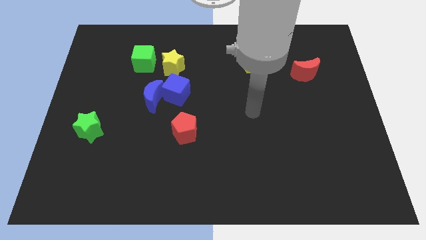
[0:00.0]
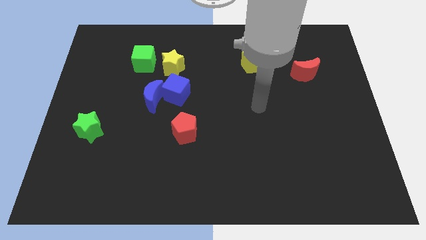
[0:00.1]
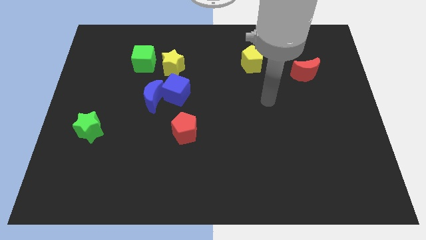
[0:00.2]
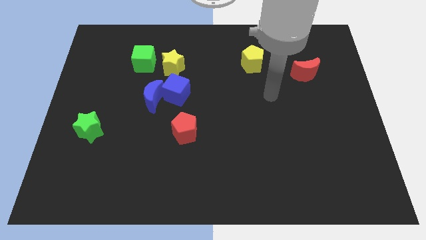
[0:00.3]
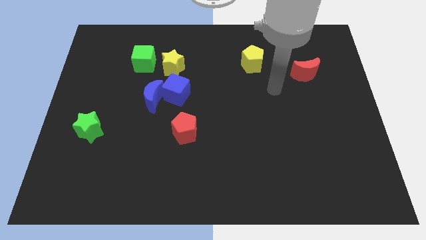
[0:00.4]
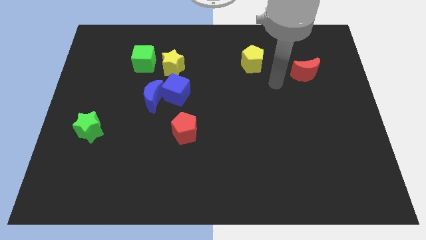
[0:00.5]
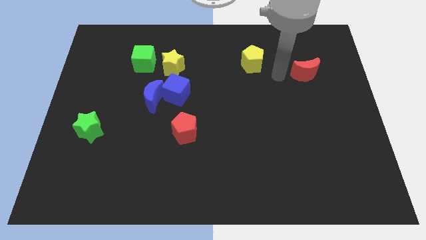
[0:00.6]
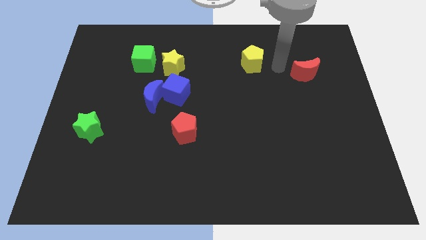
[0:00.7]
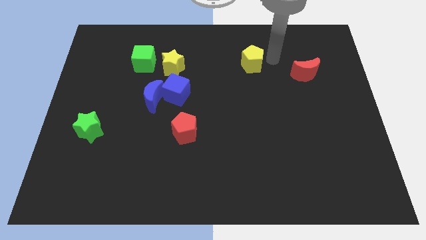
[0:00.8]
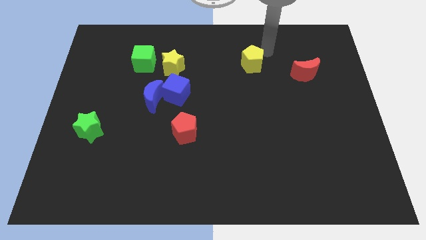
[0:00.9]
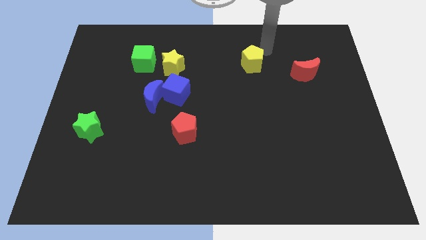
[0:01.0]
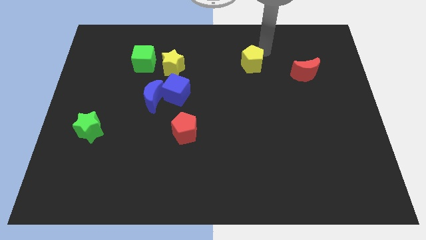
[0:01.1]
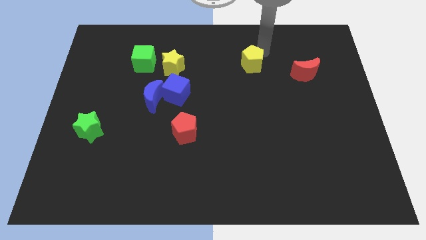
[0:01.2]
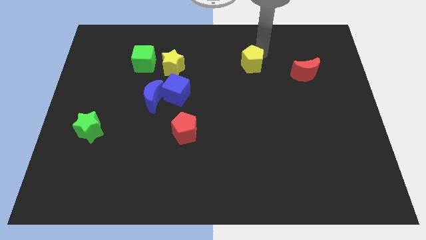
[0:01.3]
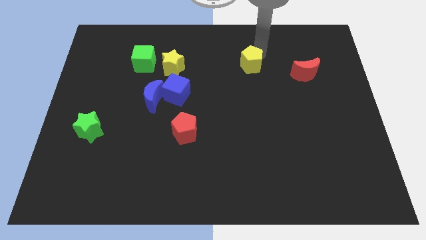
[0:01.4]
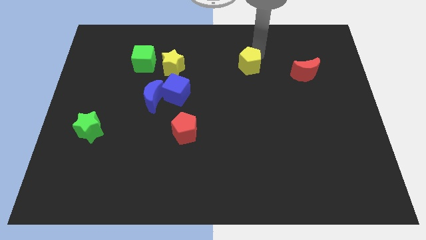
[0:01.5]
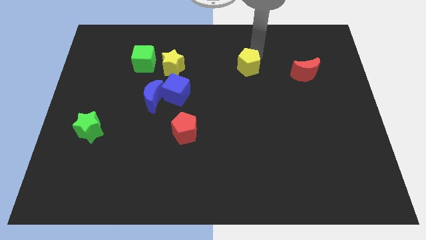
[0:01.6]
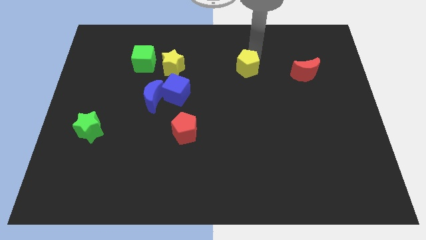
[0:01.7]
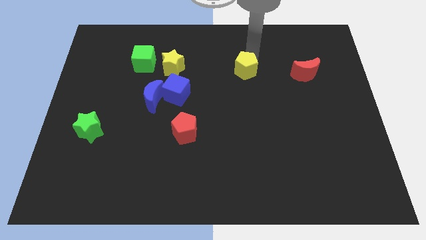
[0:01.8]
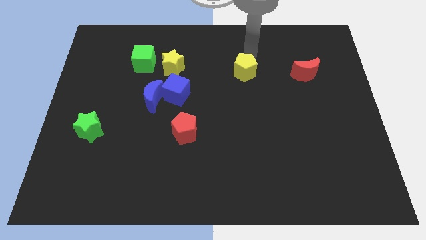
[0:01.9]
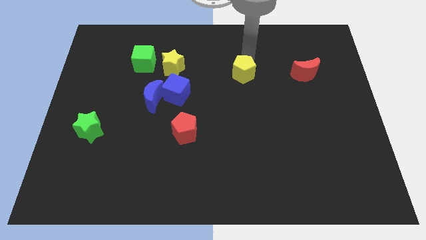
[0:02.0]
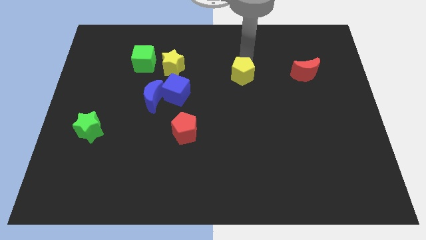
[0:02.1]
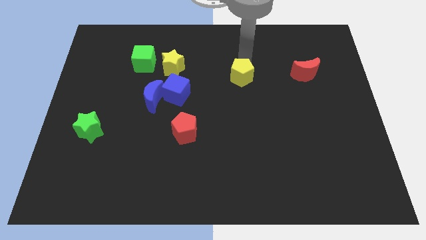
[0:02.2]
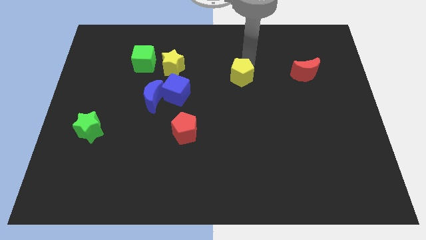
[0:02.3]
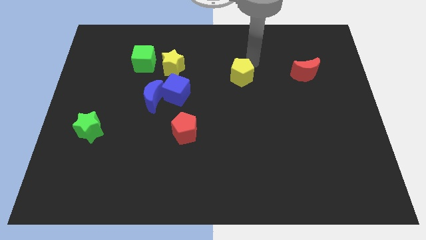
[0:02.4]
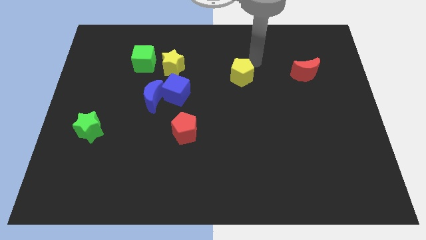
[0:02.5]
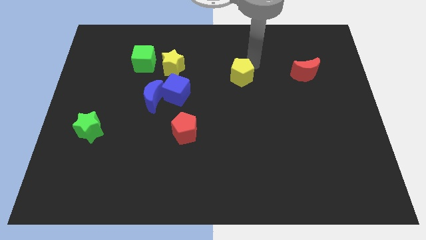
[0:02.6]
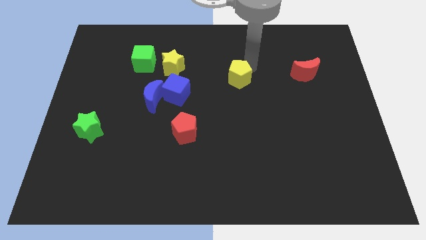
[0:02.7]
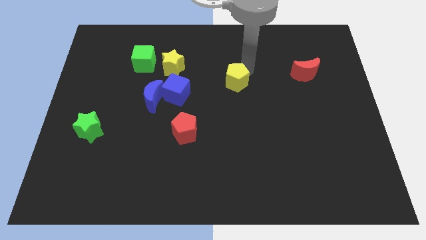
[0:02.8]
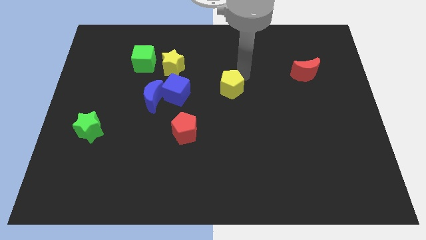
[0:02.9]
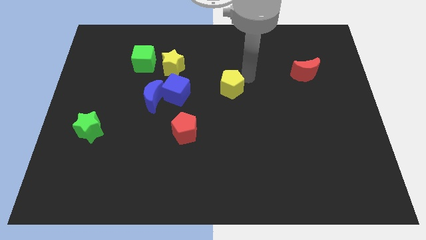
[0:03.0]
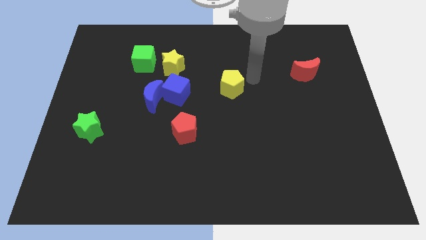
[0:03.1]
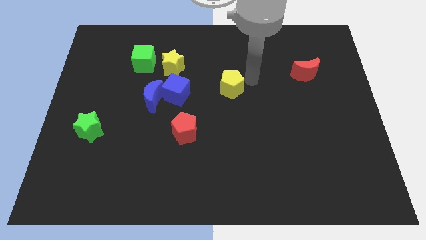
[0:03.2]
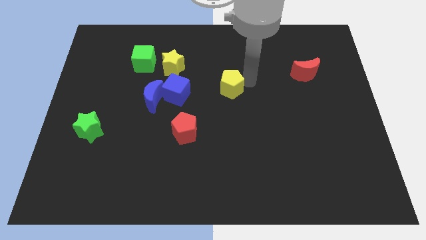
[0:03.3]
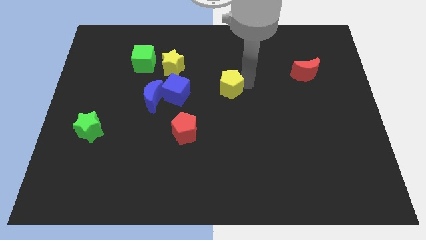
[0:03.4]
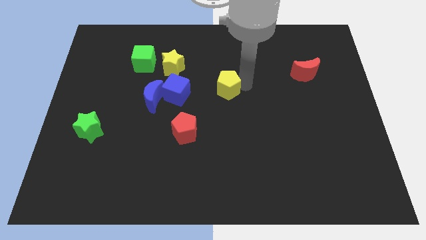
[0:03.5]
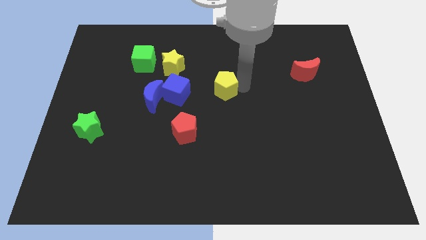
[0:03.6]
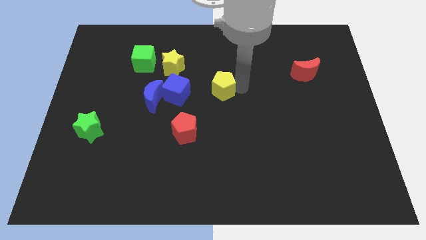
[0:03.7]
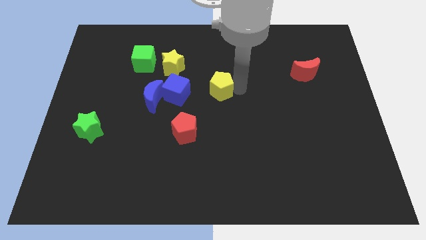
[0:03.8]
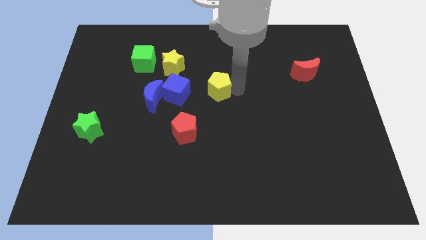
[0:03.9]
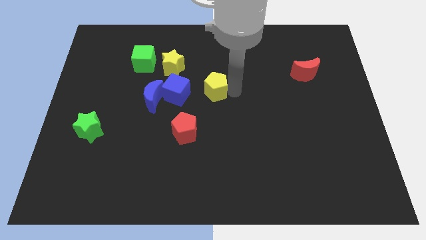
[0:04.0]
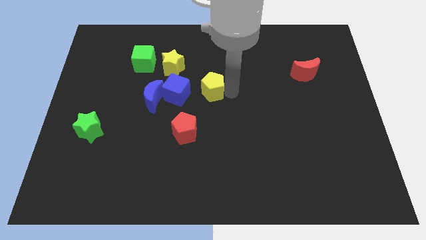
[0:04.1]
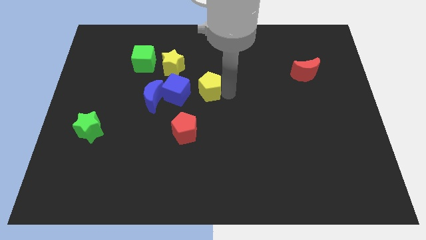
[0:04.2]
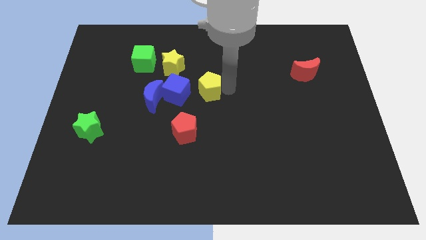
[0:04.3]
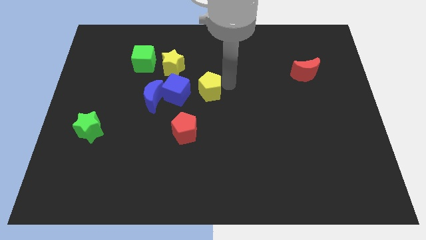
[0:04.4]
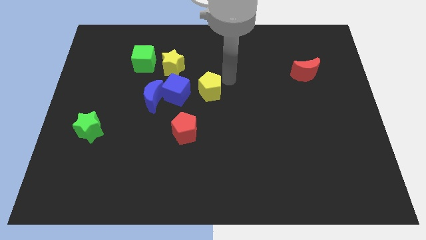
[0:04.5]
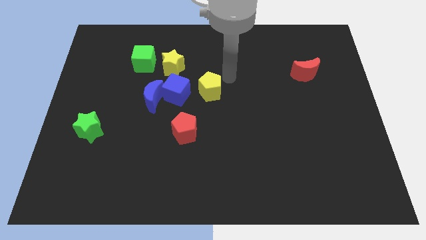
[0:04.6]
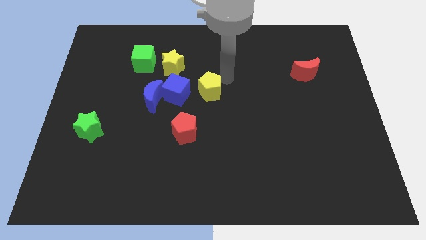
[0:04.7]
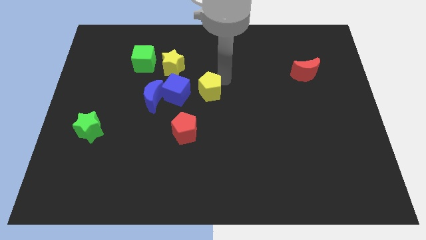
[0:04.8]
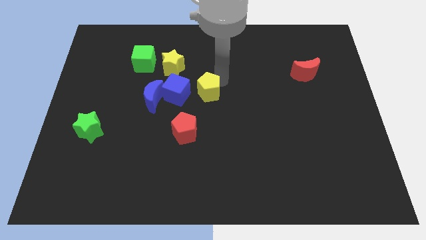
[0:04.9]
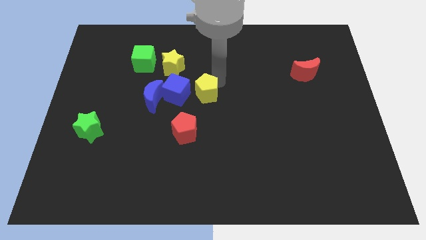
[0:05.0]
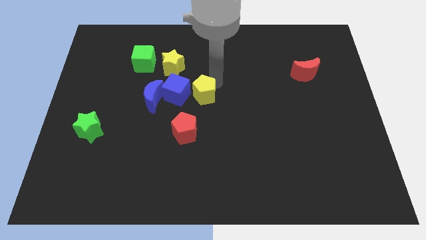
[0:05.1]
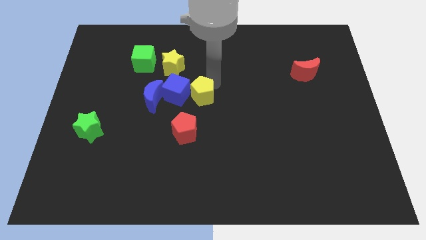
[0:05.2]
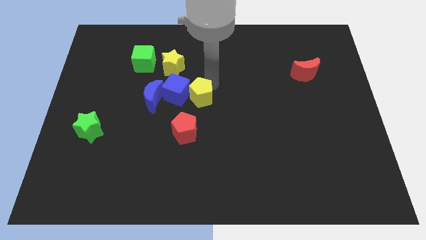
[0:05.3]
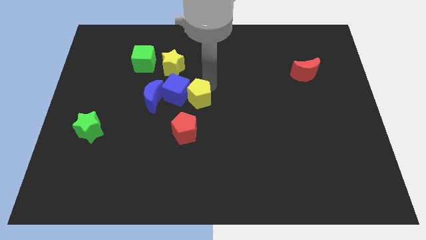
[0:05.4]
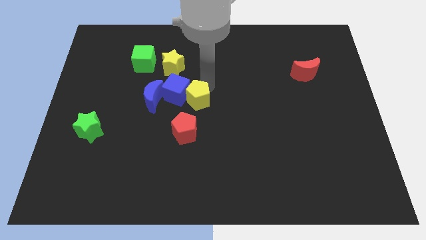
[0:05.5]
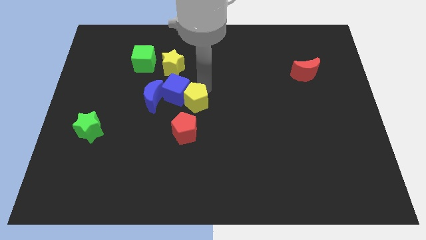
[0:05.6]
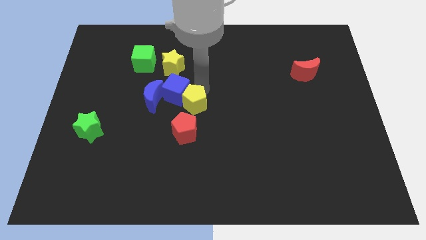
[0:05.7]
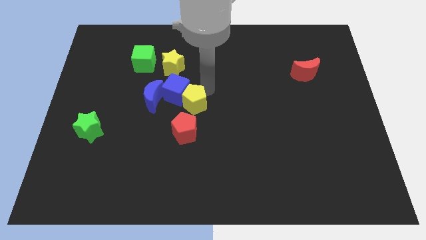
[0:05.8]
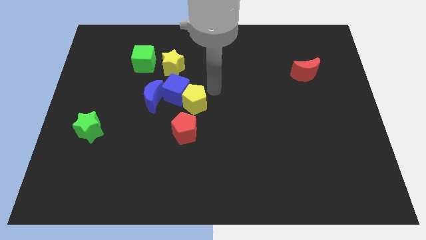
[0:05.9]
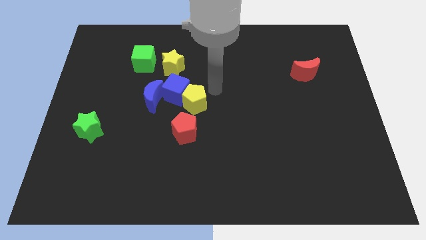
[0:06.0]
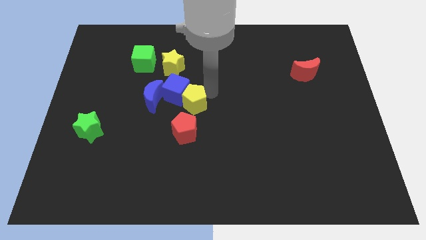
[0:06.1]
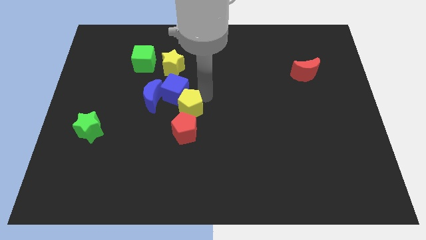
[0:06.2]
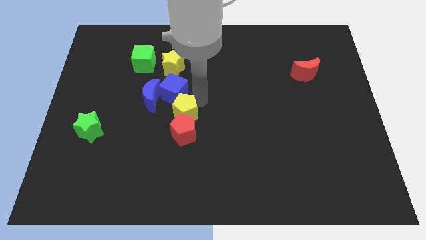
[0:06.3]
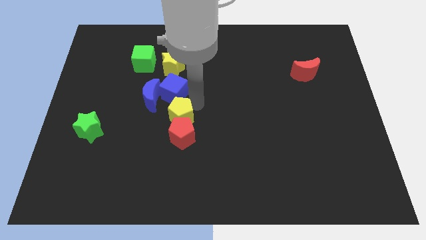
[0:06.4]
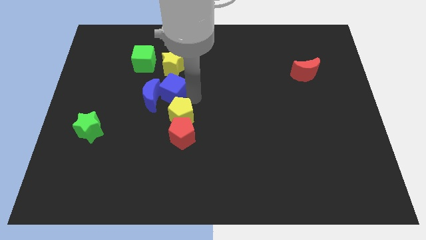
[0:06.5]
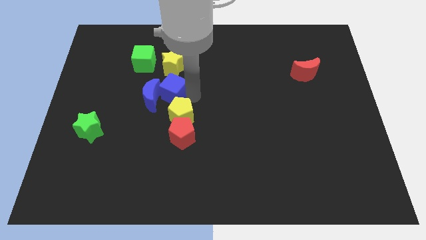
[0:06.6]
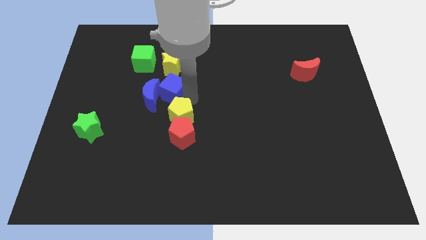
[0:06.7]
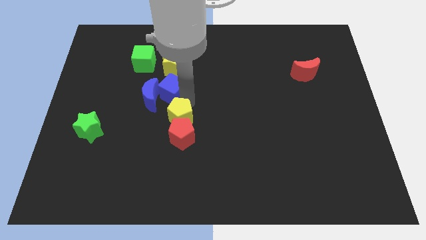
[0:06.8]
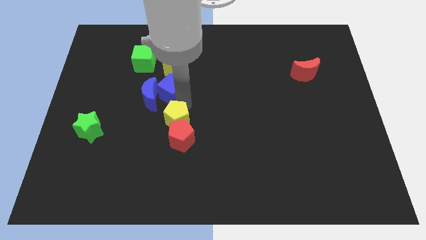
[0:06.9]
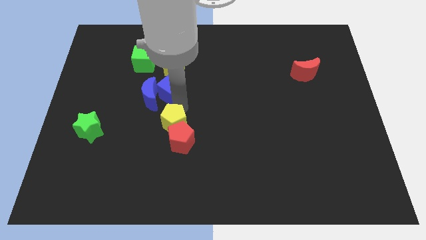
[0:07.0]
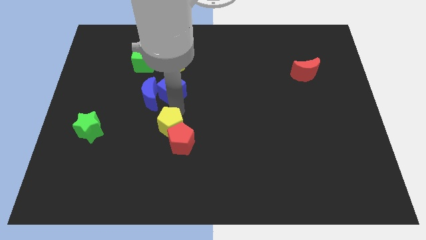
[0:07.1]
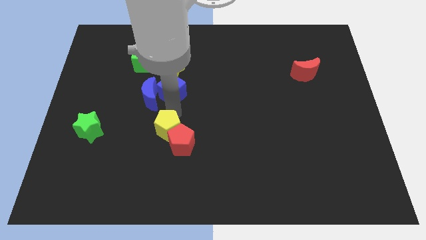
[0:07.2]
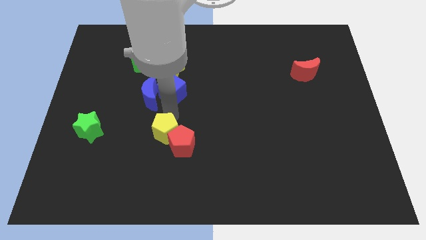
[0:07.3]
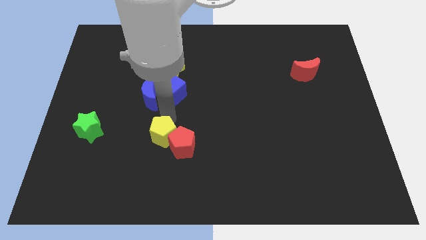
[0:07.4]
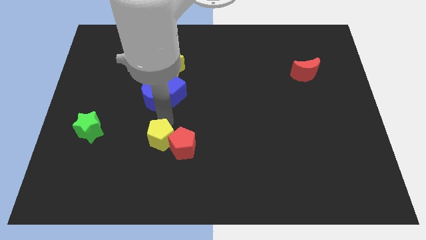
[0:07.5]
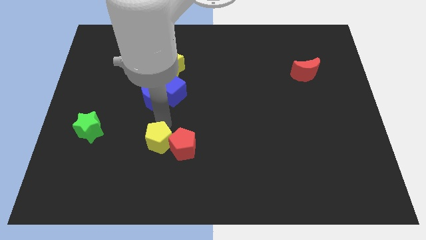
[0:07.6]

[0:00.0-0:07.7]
slide the yellow pentagon to the bottom left side of the red pentagon

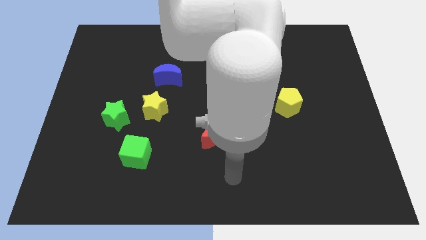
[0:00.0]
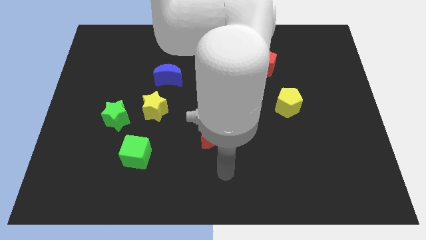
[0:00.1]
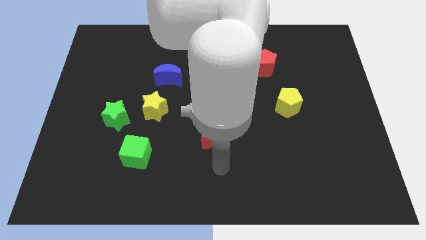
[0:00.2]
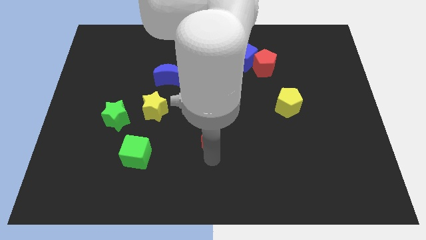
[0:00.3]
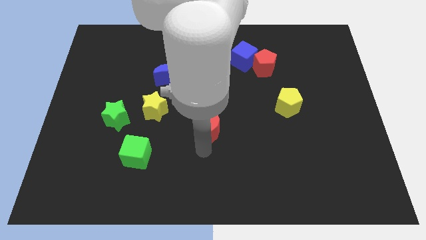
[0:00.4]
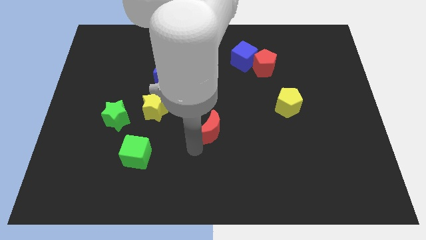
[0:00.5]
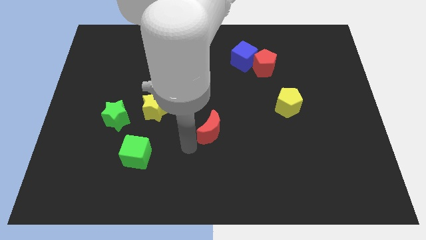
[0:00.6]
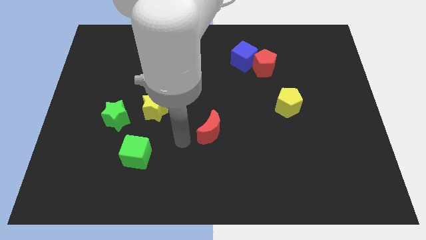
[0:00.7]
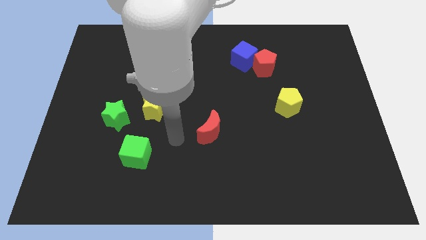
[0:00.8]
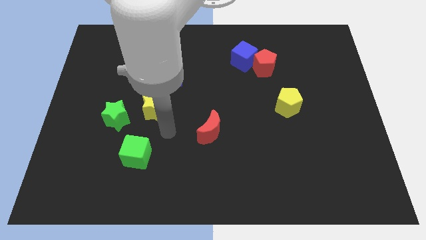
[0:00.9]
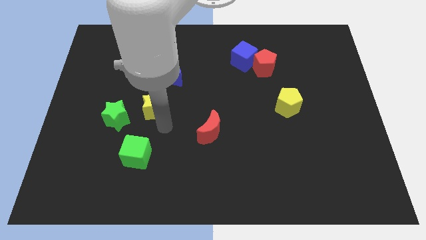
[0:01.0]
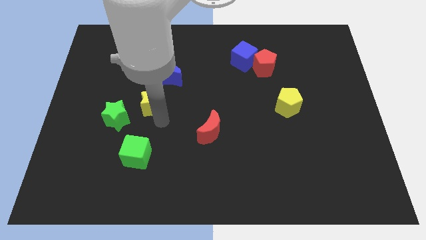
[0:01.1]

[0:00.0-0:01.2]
push the yellow star to the bottom left side of the blue moon
